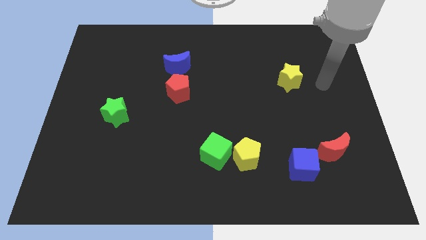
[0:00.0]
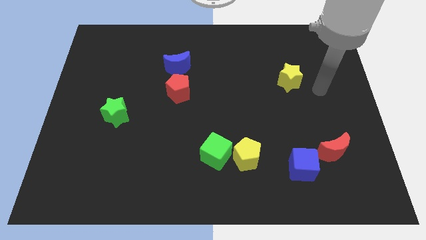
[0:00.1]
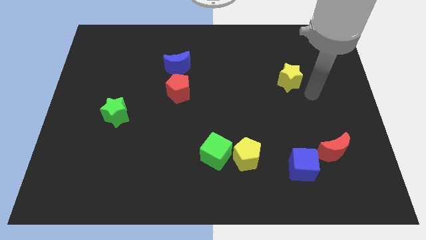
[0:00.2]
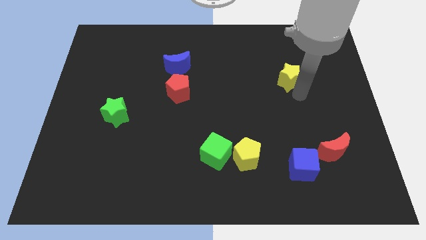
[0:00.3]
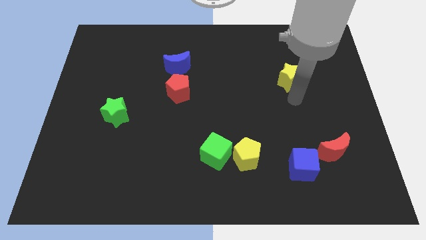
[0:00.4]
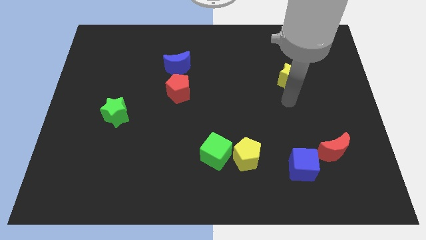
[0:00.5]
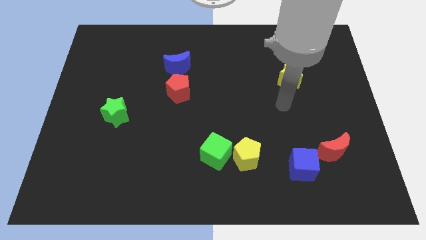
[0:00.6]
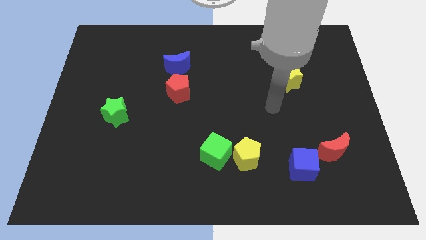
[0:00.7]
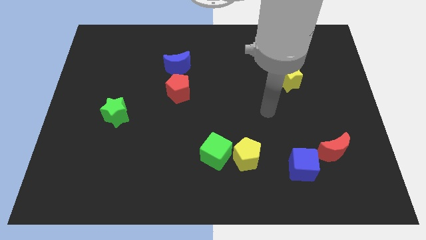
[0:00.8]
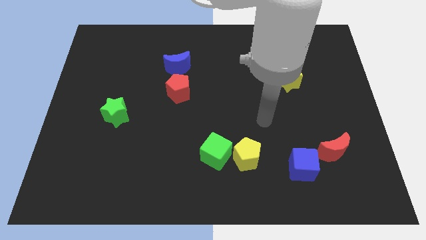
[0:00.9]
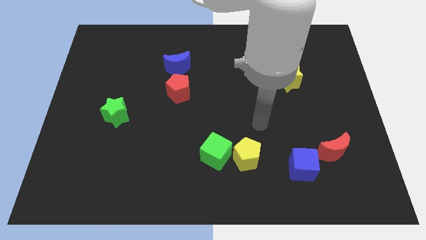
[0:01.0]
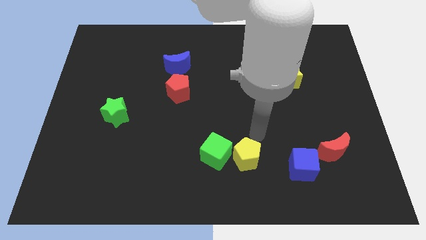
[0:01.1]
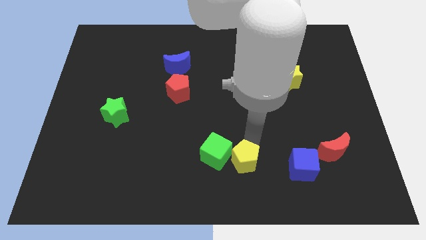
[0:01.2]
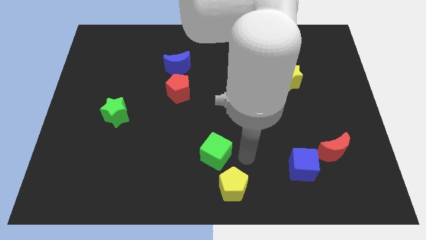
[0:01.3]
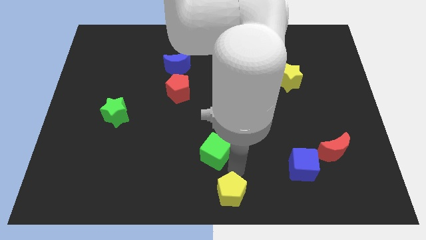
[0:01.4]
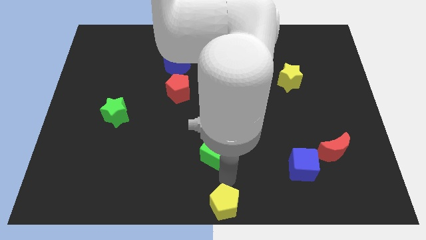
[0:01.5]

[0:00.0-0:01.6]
pull the green cube apart from the yellow pentagon

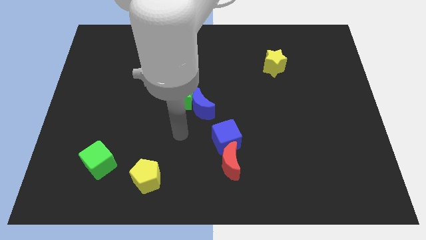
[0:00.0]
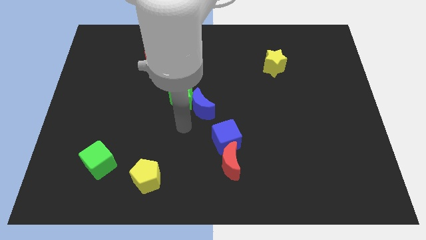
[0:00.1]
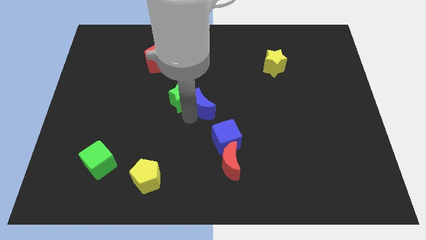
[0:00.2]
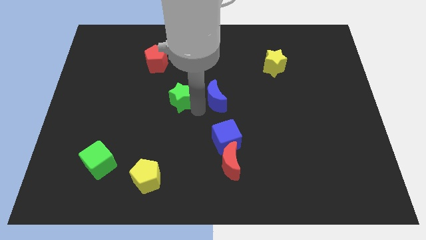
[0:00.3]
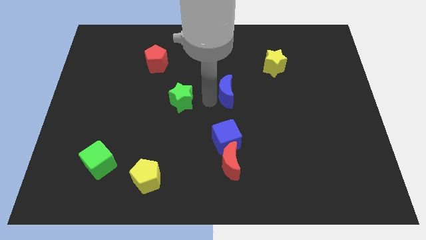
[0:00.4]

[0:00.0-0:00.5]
move the green star away from the blue moon

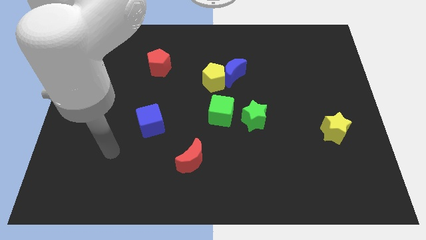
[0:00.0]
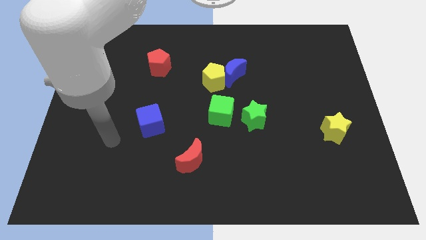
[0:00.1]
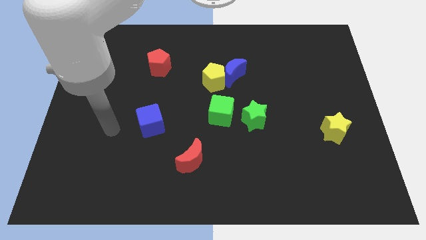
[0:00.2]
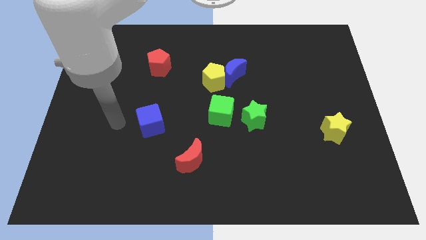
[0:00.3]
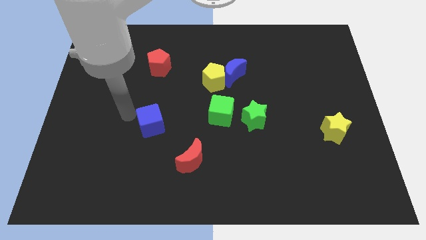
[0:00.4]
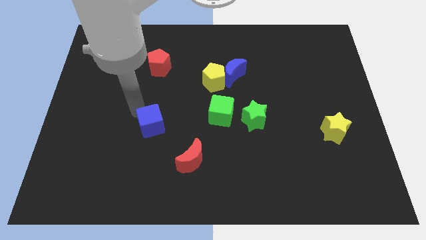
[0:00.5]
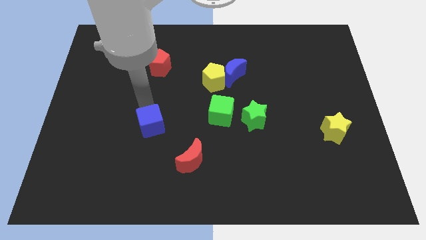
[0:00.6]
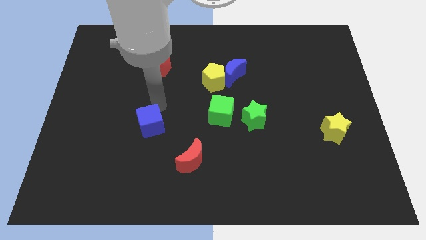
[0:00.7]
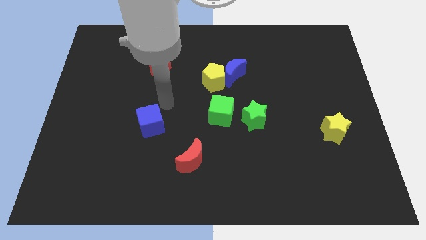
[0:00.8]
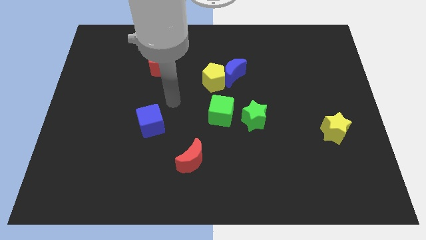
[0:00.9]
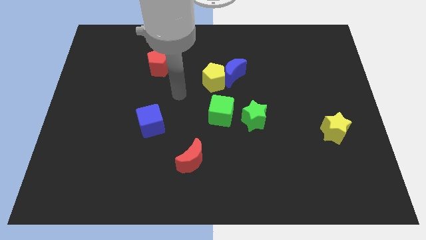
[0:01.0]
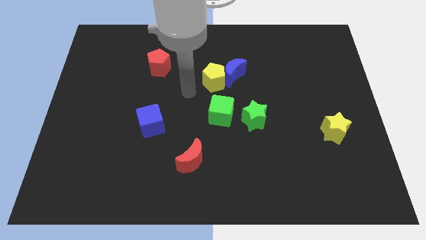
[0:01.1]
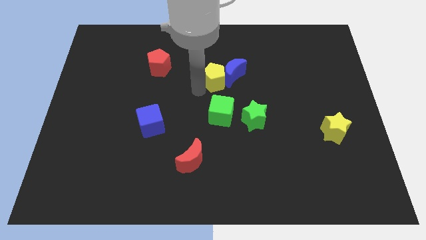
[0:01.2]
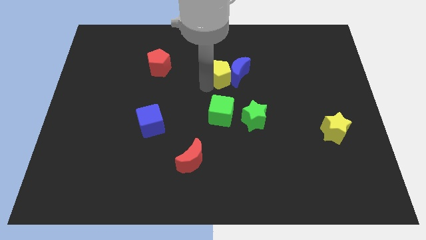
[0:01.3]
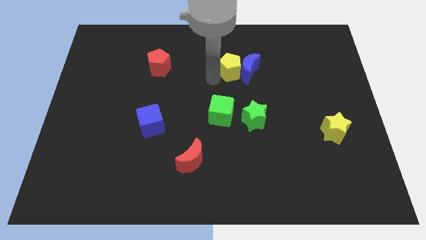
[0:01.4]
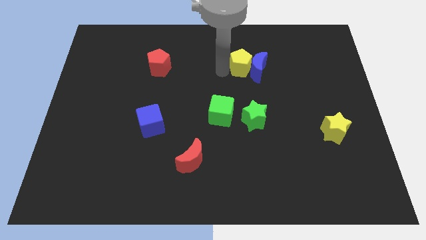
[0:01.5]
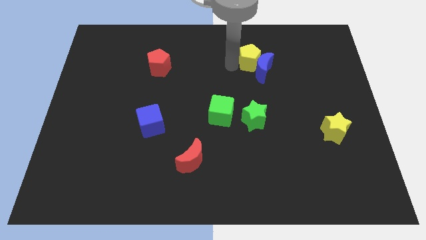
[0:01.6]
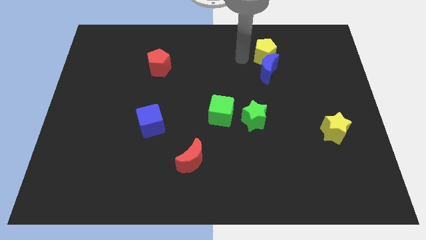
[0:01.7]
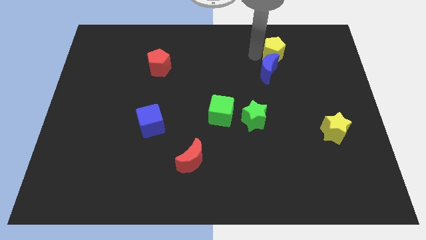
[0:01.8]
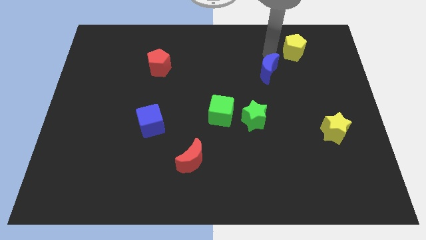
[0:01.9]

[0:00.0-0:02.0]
separate the blue moon from the yellow pentagon

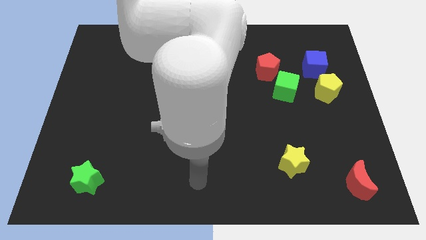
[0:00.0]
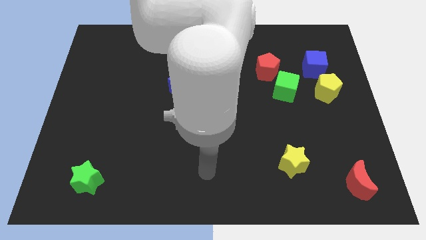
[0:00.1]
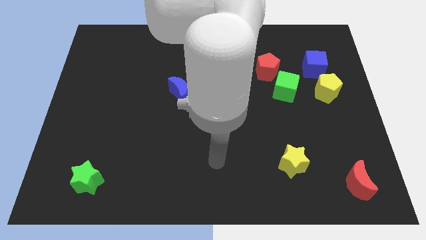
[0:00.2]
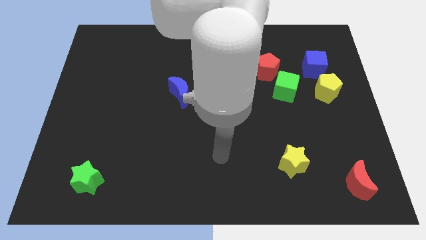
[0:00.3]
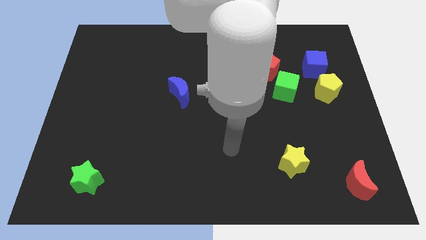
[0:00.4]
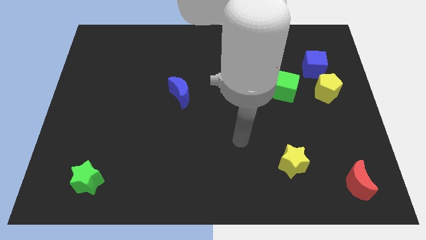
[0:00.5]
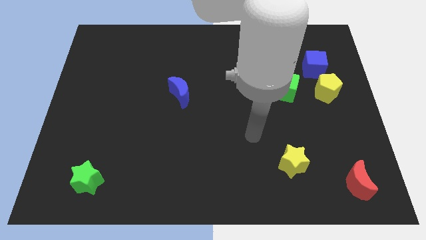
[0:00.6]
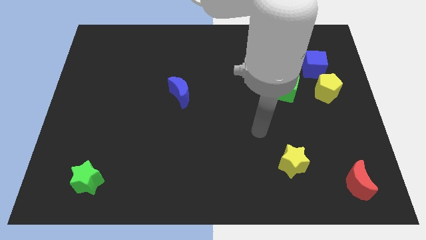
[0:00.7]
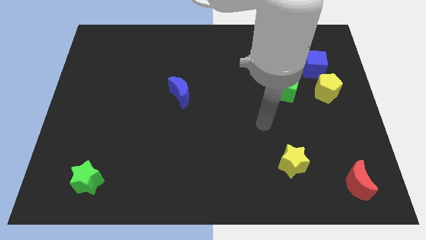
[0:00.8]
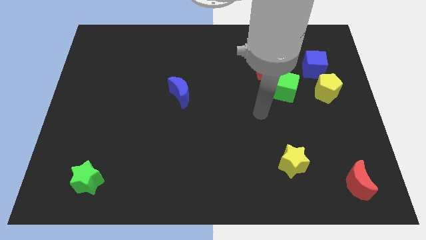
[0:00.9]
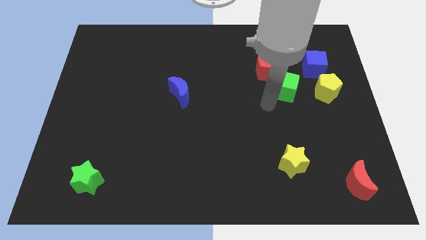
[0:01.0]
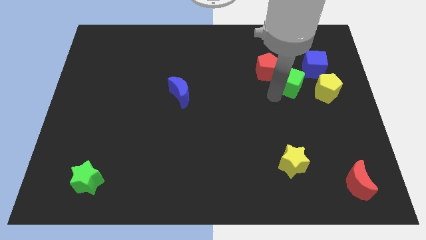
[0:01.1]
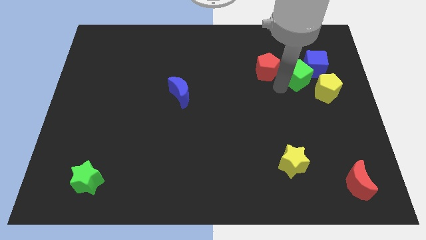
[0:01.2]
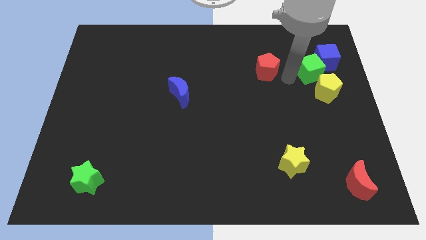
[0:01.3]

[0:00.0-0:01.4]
pull the red pentagon apart from the green cube

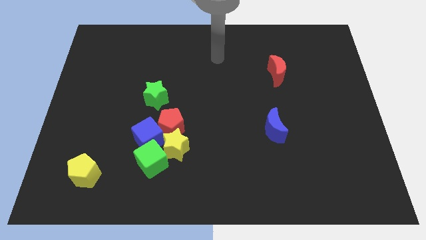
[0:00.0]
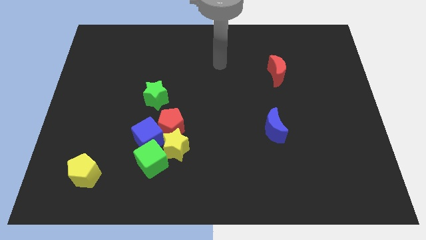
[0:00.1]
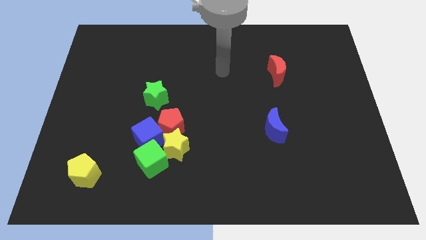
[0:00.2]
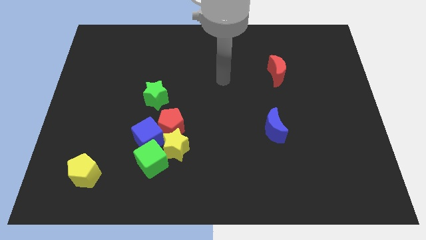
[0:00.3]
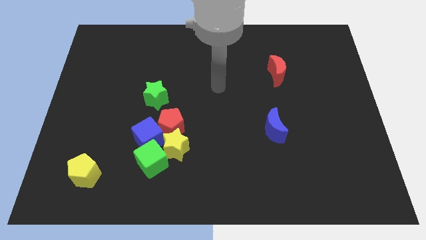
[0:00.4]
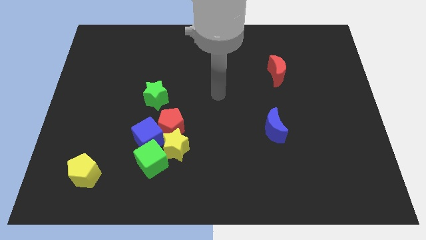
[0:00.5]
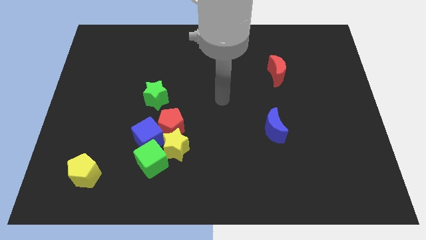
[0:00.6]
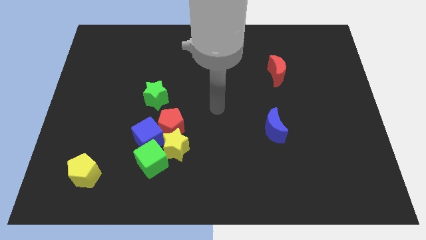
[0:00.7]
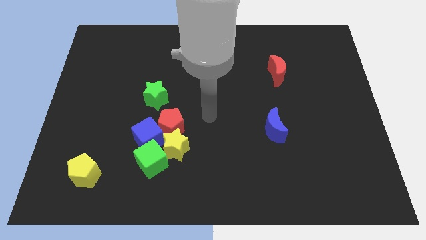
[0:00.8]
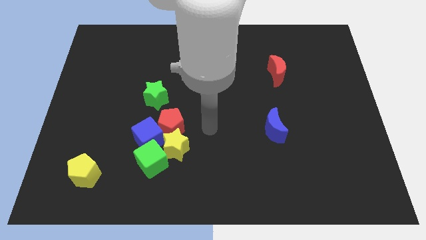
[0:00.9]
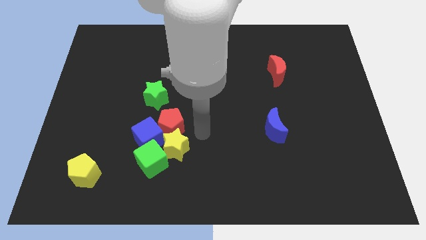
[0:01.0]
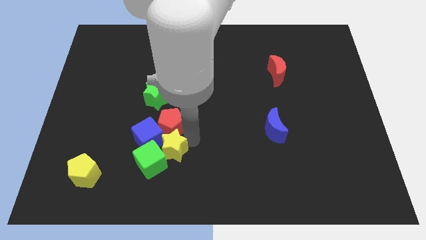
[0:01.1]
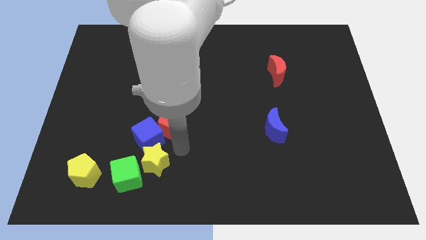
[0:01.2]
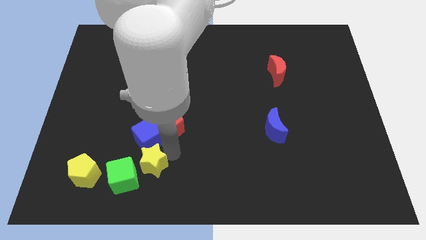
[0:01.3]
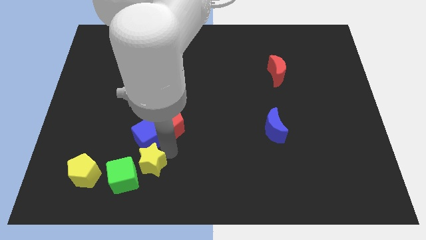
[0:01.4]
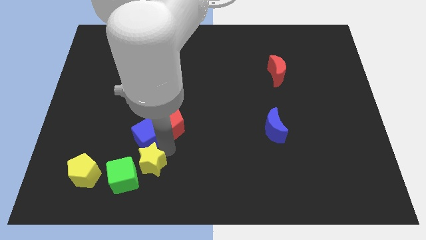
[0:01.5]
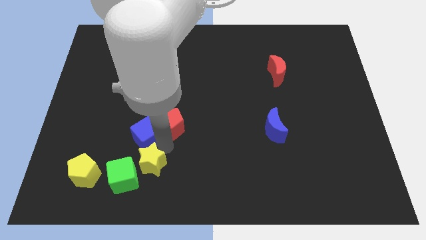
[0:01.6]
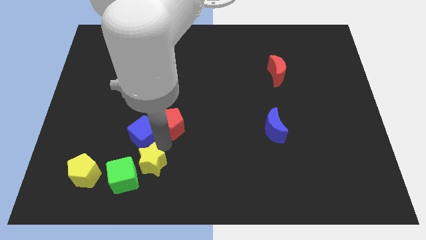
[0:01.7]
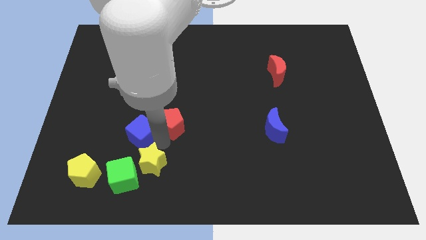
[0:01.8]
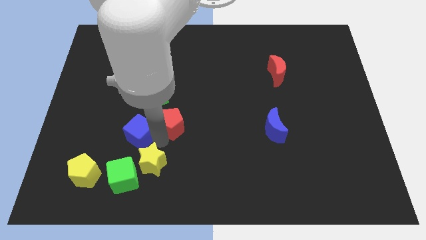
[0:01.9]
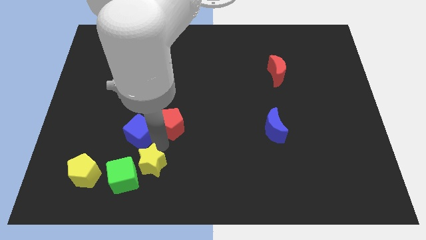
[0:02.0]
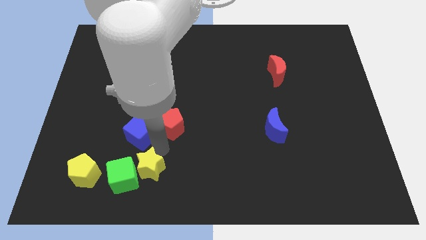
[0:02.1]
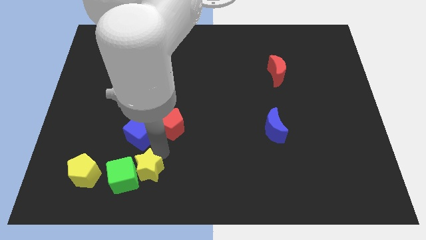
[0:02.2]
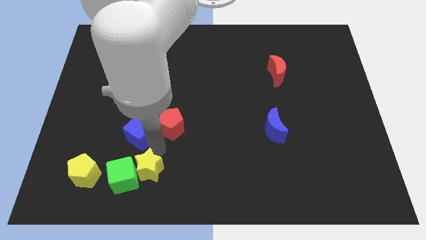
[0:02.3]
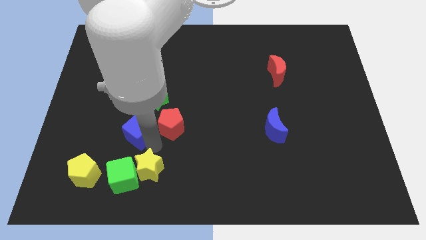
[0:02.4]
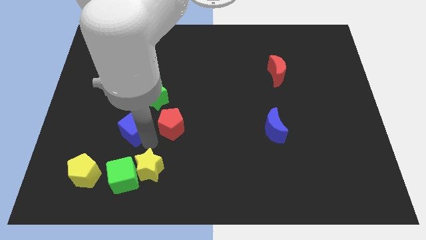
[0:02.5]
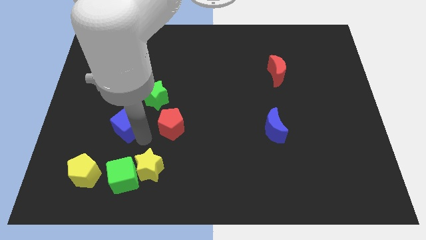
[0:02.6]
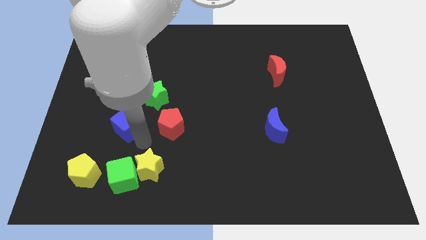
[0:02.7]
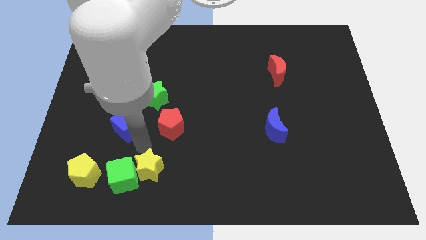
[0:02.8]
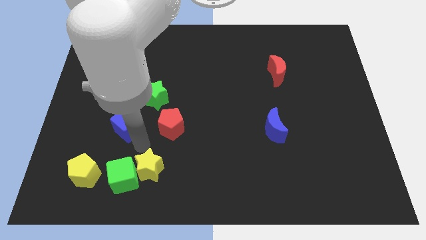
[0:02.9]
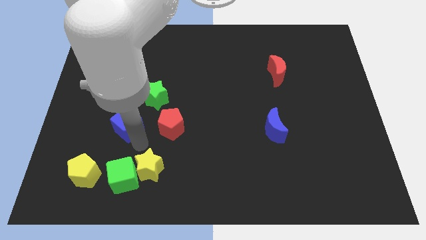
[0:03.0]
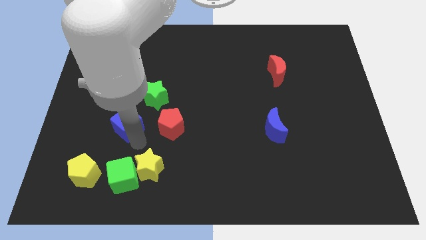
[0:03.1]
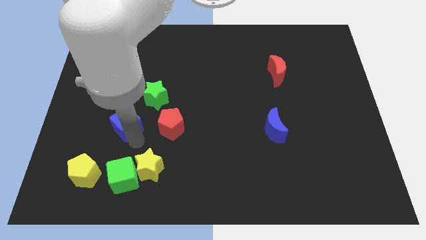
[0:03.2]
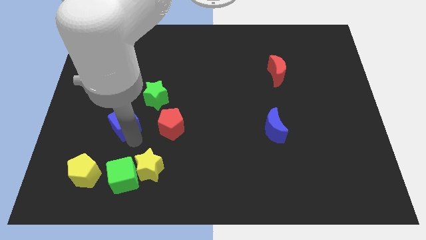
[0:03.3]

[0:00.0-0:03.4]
separate the blue cube from the group

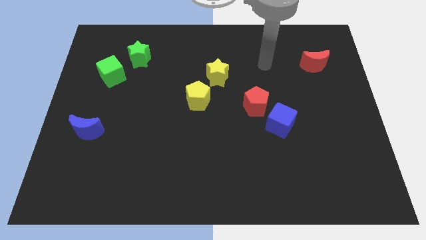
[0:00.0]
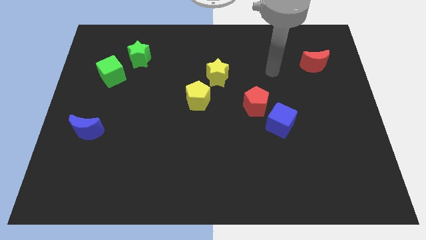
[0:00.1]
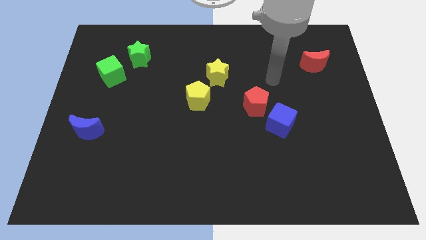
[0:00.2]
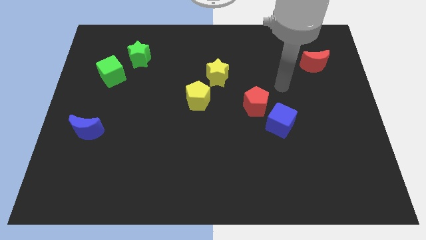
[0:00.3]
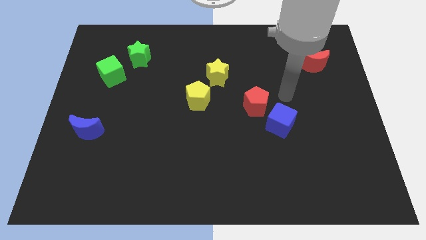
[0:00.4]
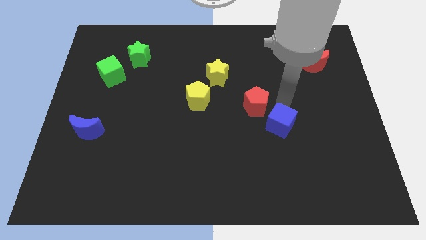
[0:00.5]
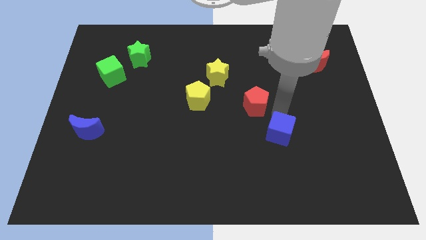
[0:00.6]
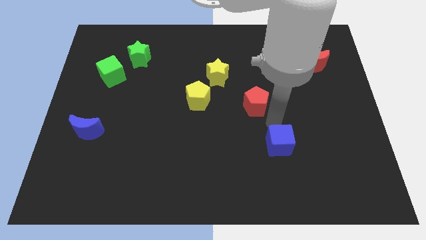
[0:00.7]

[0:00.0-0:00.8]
move the red pentagon away from the blue cube
